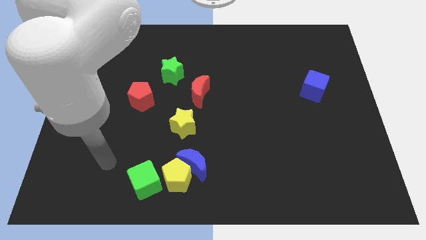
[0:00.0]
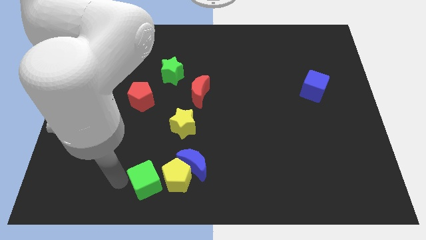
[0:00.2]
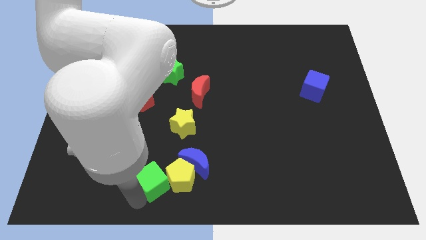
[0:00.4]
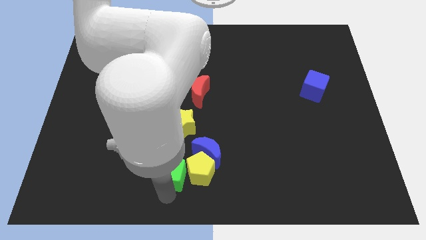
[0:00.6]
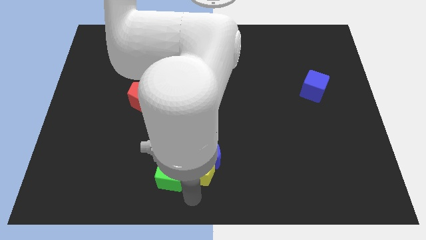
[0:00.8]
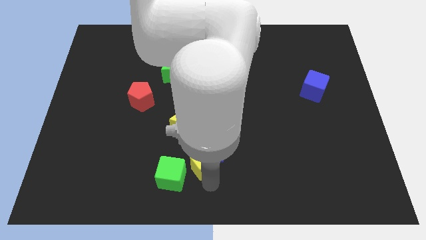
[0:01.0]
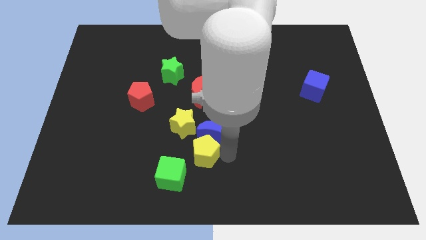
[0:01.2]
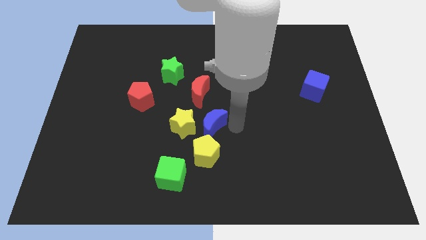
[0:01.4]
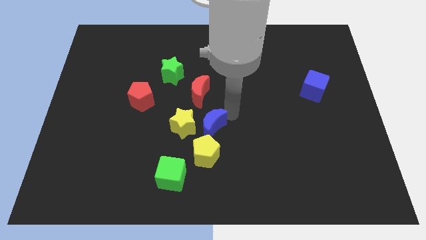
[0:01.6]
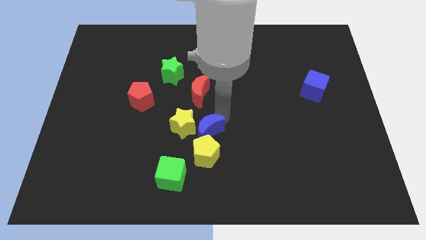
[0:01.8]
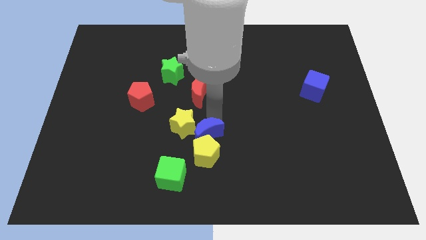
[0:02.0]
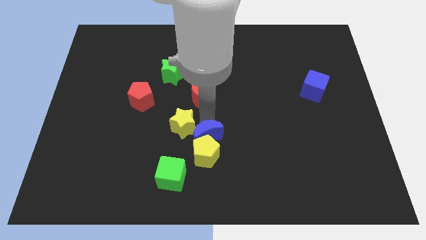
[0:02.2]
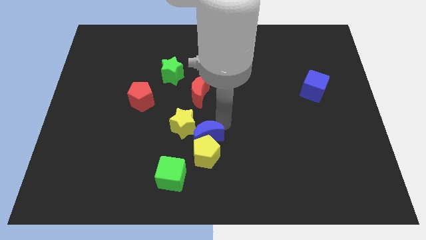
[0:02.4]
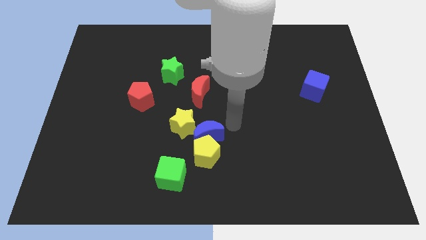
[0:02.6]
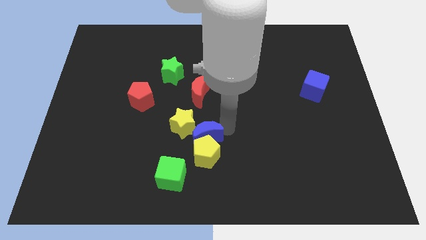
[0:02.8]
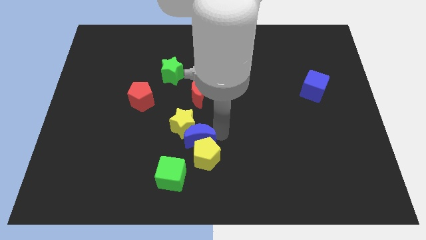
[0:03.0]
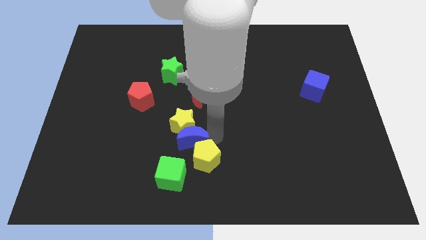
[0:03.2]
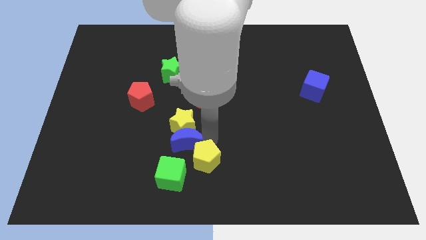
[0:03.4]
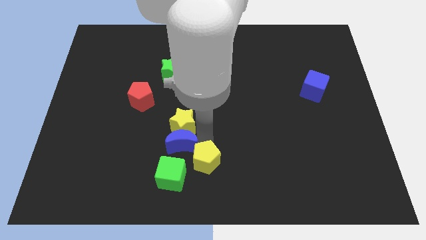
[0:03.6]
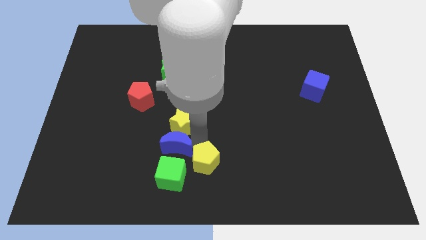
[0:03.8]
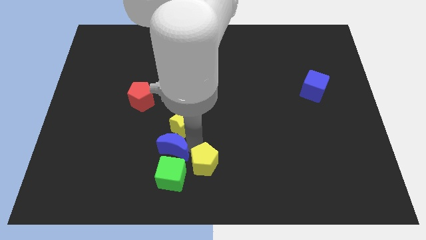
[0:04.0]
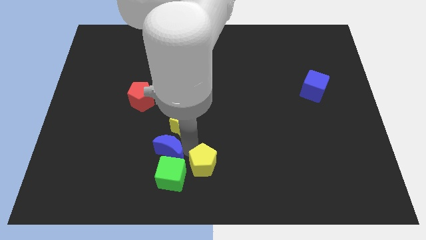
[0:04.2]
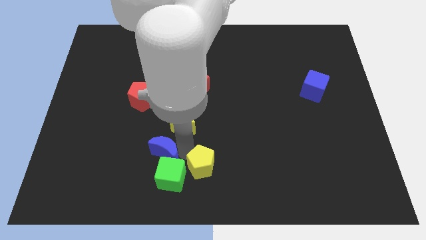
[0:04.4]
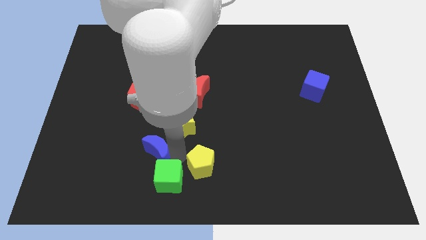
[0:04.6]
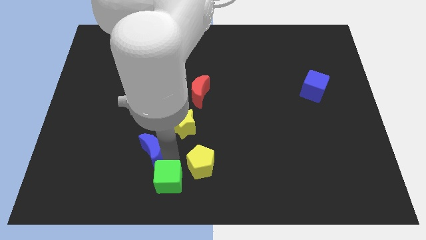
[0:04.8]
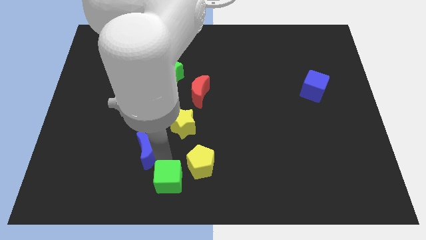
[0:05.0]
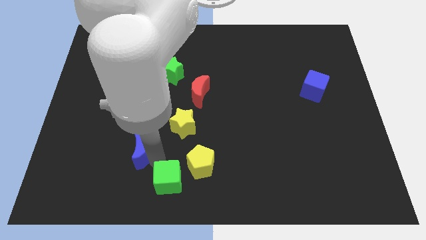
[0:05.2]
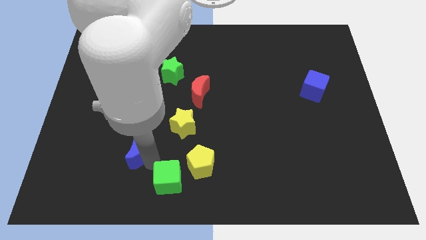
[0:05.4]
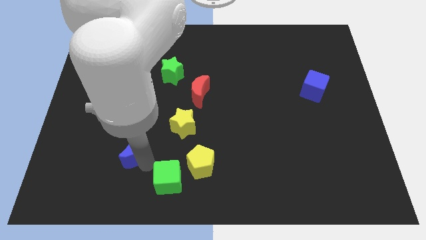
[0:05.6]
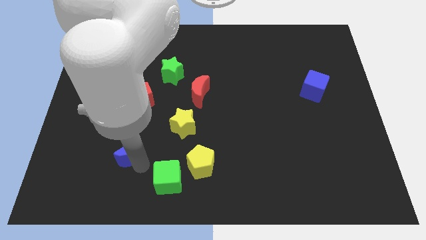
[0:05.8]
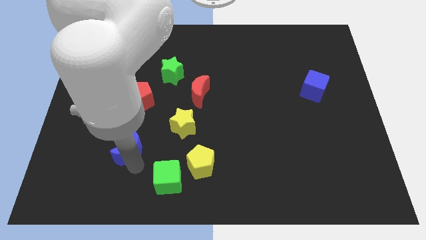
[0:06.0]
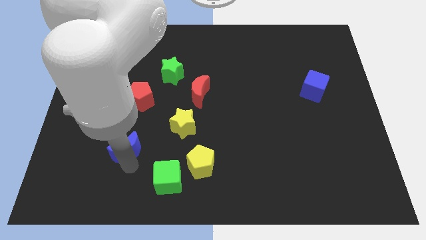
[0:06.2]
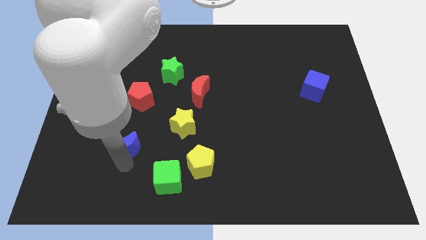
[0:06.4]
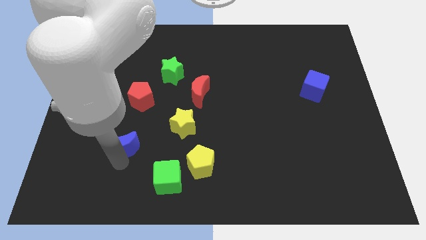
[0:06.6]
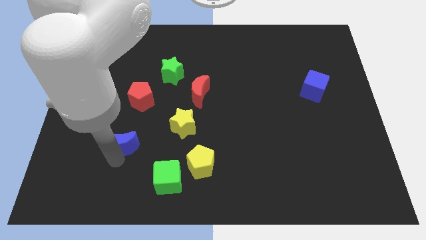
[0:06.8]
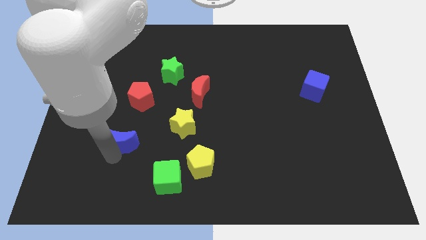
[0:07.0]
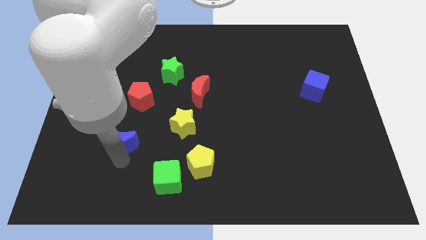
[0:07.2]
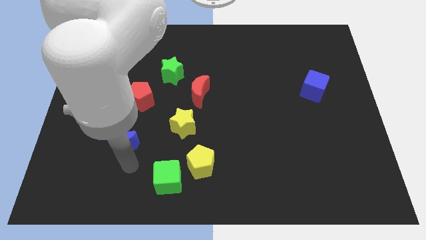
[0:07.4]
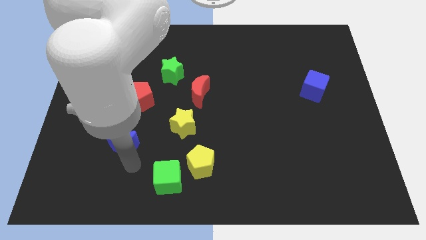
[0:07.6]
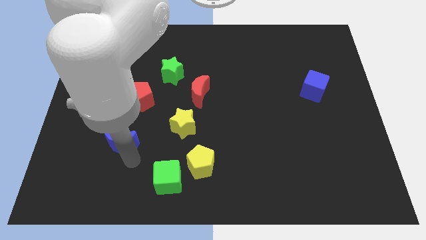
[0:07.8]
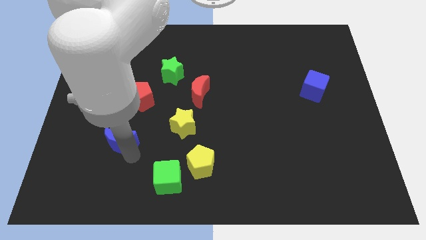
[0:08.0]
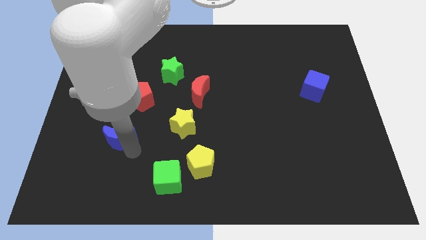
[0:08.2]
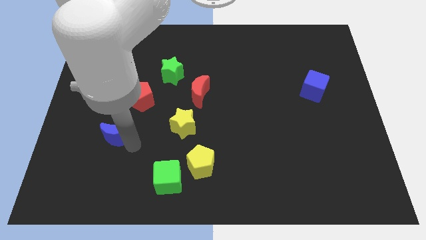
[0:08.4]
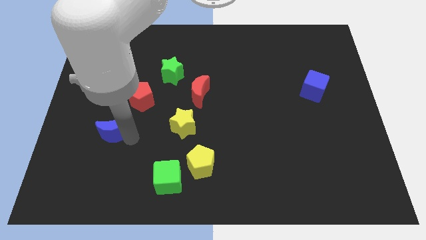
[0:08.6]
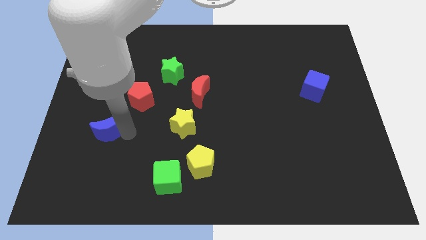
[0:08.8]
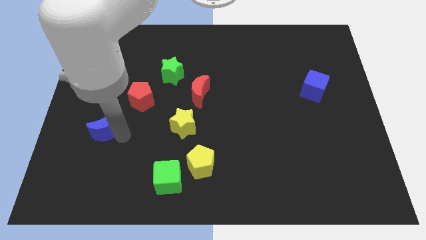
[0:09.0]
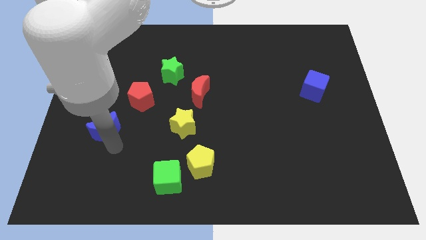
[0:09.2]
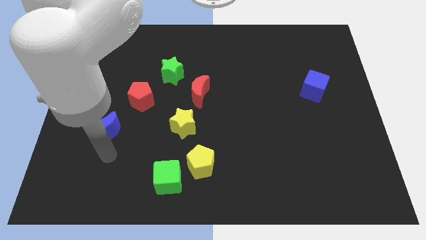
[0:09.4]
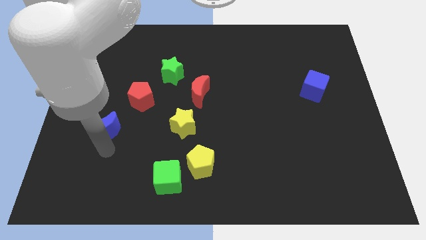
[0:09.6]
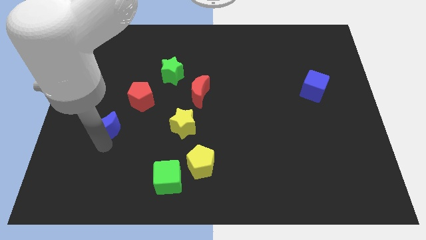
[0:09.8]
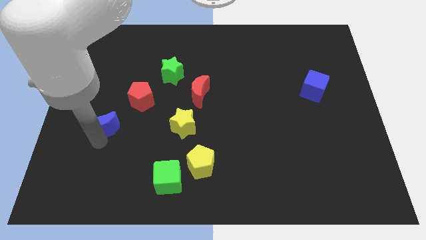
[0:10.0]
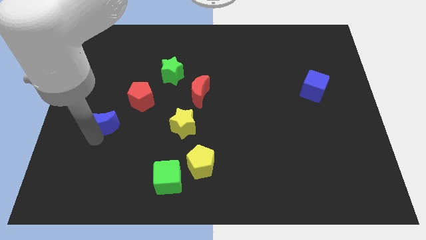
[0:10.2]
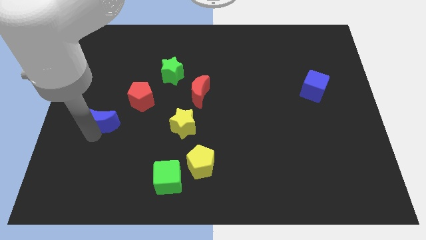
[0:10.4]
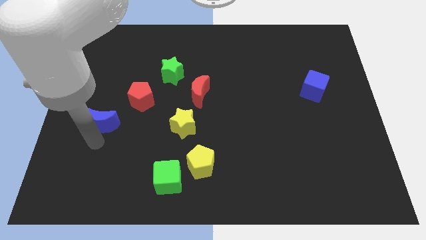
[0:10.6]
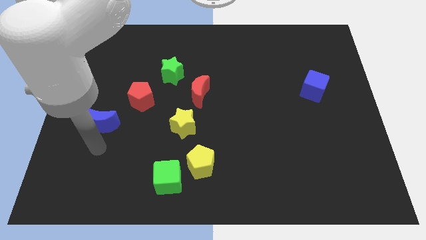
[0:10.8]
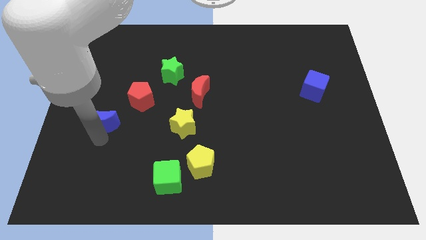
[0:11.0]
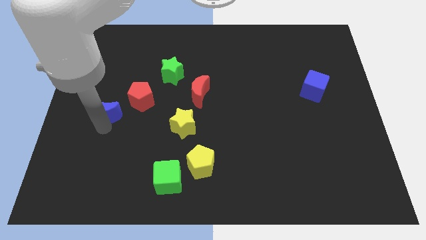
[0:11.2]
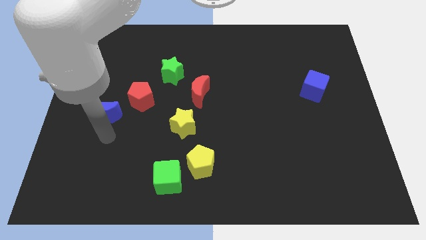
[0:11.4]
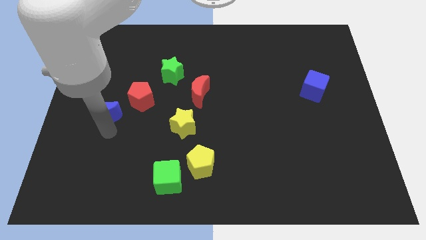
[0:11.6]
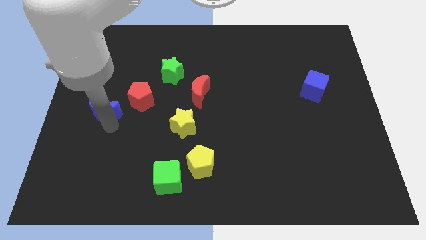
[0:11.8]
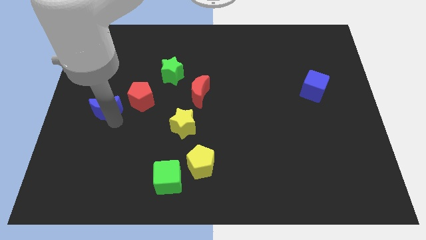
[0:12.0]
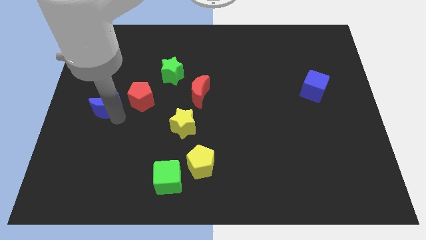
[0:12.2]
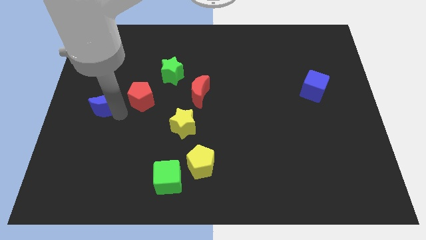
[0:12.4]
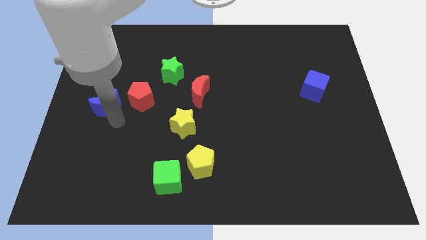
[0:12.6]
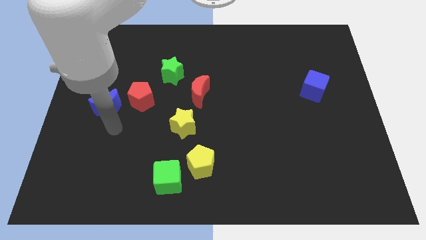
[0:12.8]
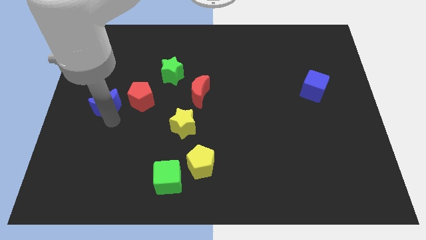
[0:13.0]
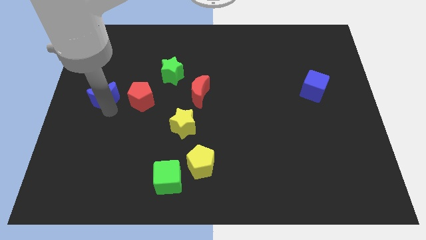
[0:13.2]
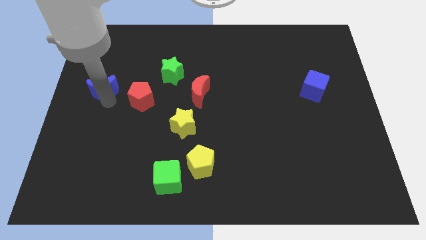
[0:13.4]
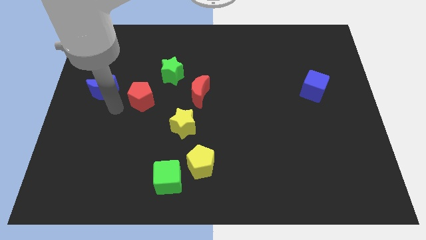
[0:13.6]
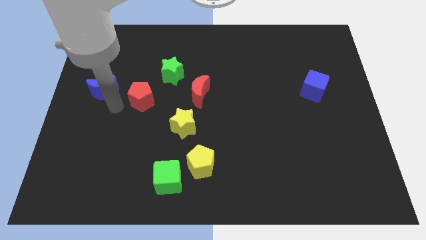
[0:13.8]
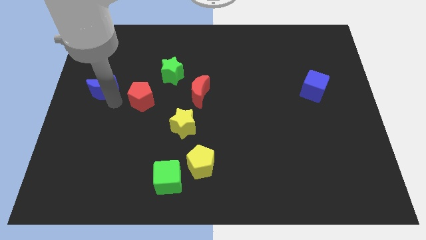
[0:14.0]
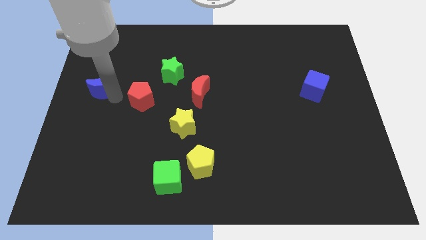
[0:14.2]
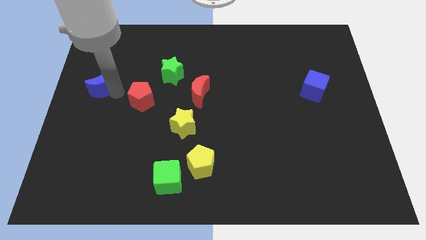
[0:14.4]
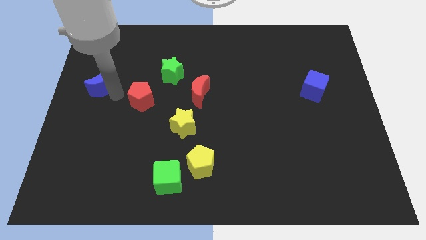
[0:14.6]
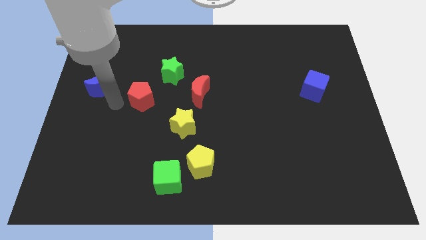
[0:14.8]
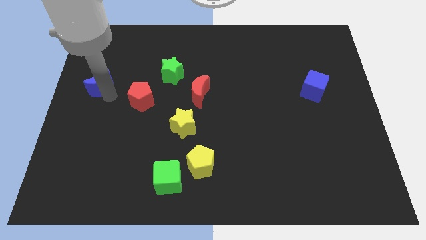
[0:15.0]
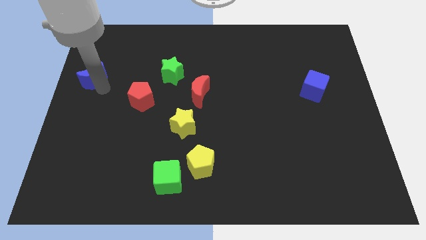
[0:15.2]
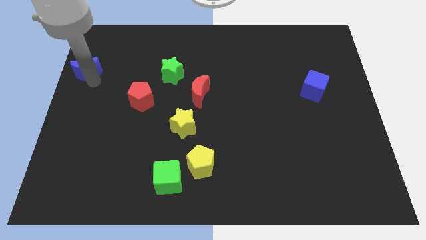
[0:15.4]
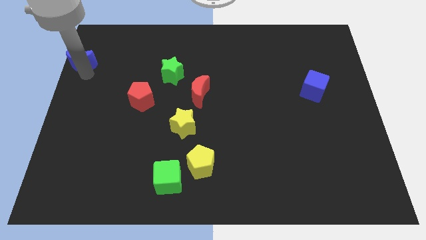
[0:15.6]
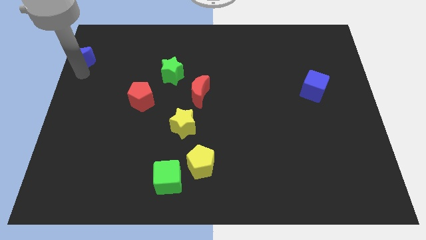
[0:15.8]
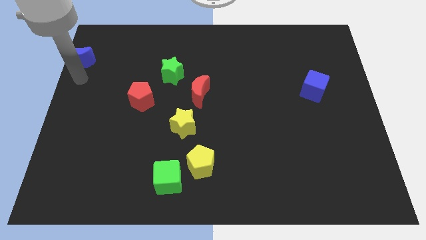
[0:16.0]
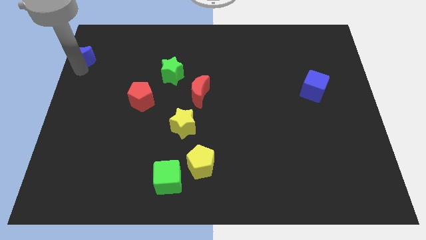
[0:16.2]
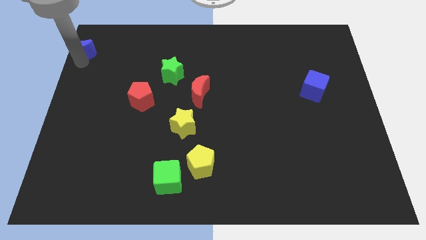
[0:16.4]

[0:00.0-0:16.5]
move the blue moon to the top left
